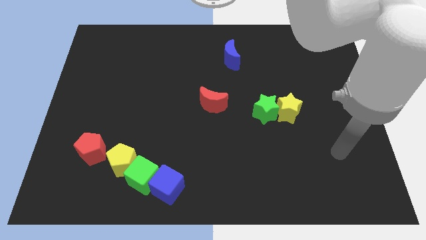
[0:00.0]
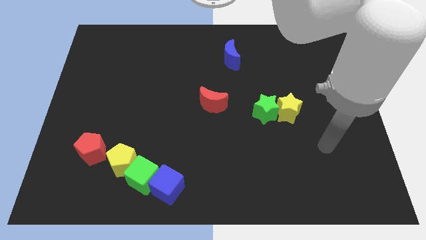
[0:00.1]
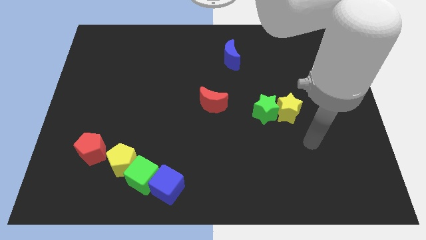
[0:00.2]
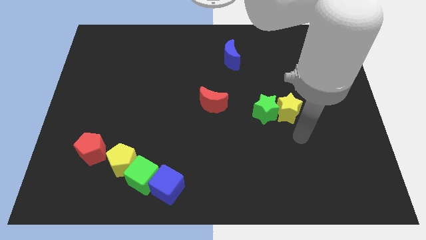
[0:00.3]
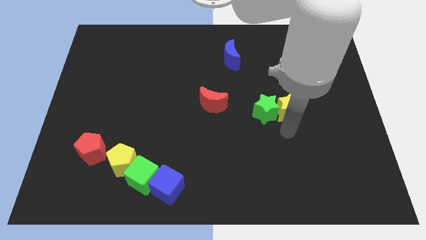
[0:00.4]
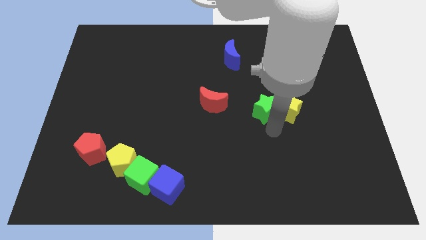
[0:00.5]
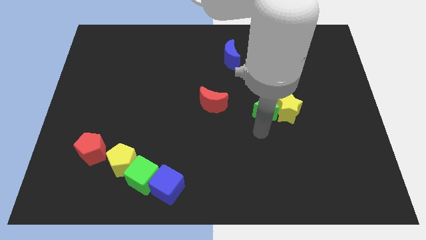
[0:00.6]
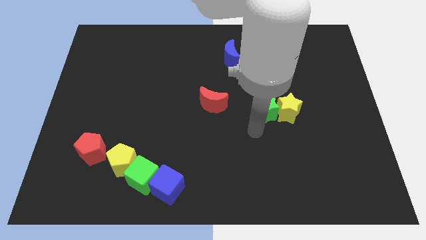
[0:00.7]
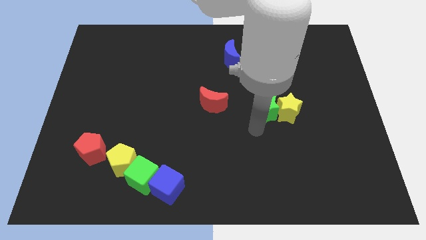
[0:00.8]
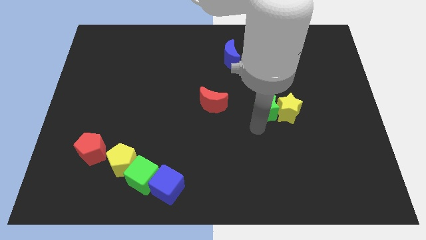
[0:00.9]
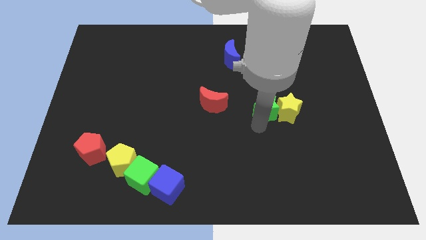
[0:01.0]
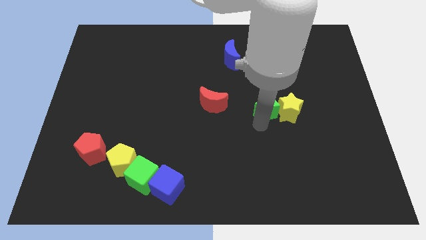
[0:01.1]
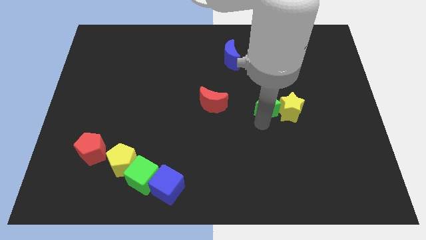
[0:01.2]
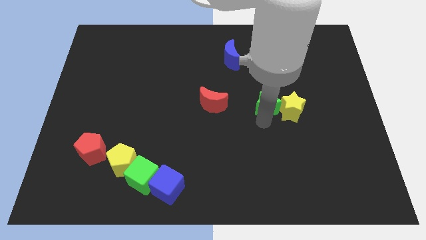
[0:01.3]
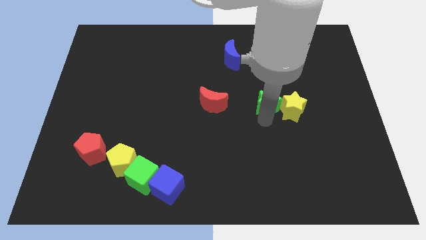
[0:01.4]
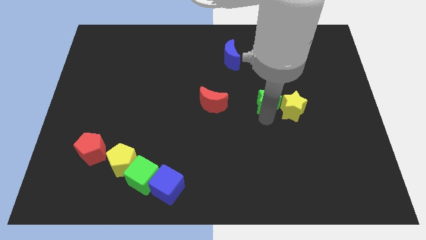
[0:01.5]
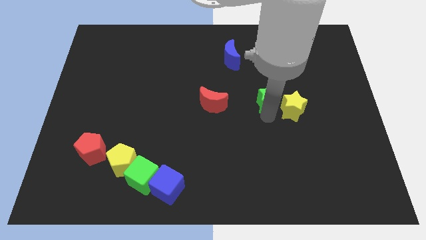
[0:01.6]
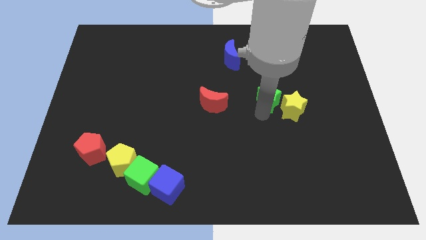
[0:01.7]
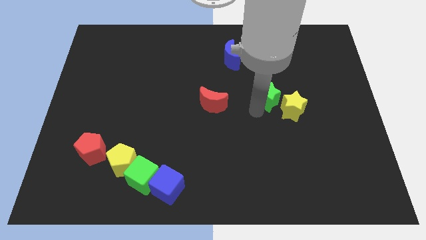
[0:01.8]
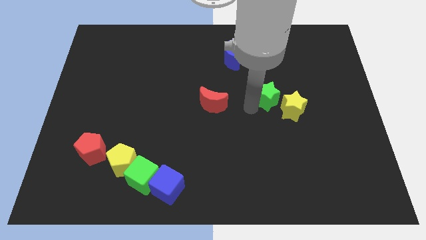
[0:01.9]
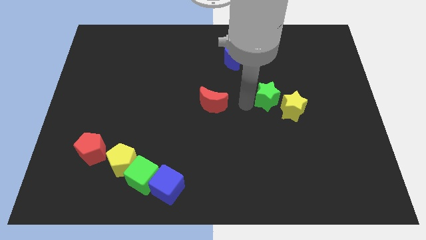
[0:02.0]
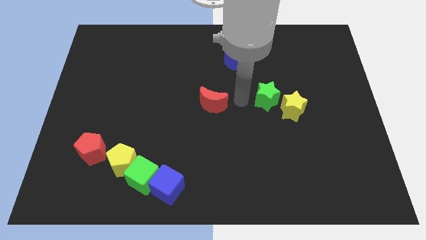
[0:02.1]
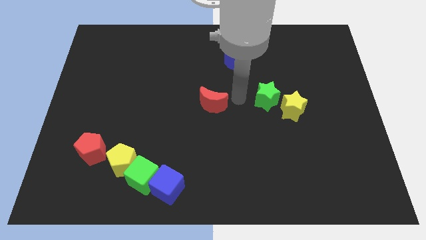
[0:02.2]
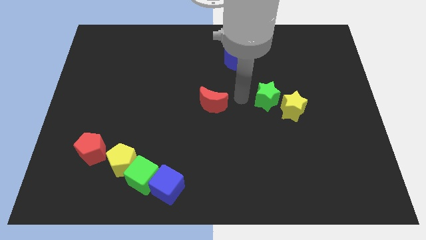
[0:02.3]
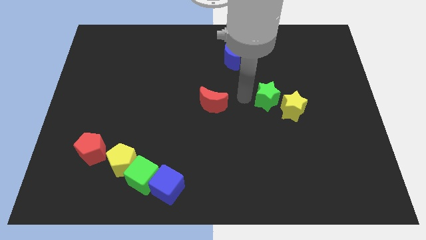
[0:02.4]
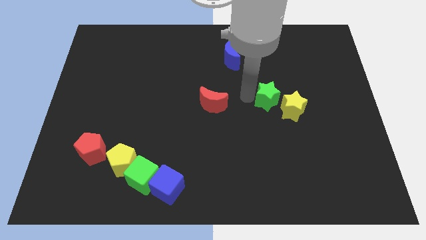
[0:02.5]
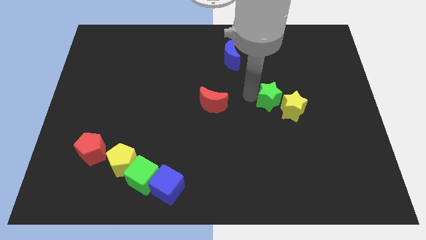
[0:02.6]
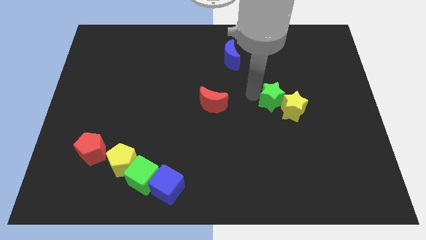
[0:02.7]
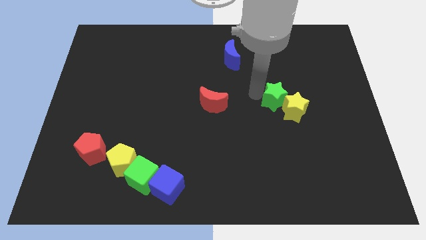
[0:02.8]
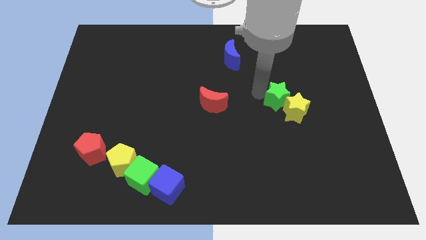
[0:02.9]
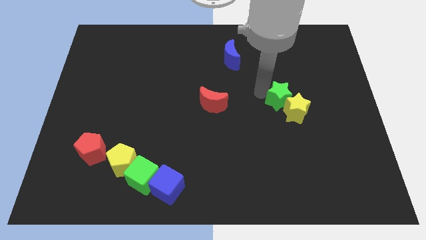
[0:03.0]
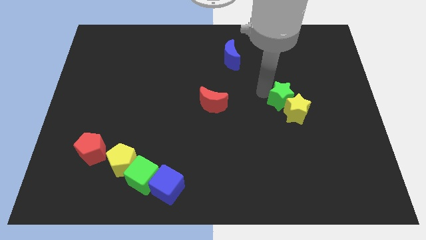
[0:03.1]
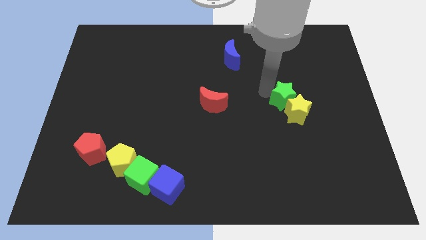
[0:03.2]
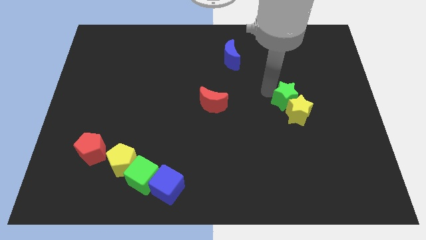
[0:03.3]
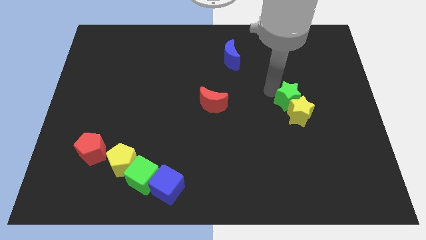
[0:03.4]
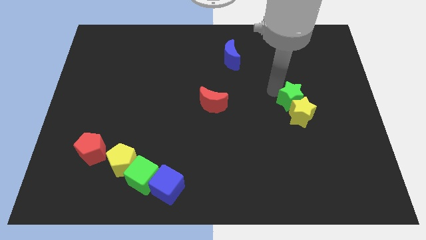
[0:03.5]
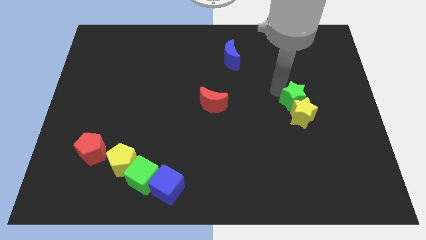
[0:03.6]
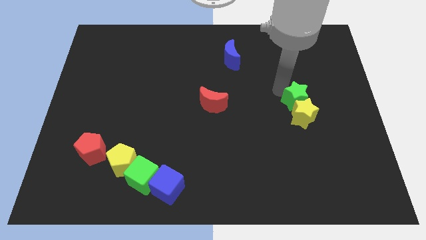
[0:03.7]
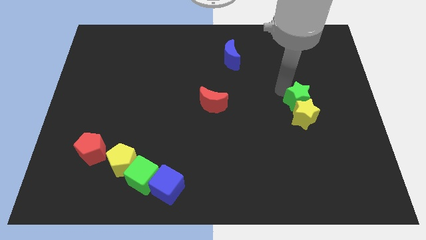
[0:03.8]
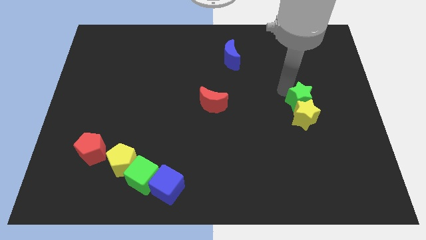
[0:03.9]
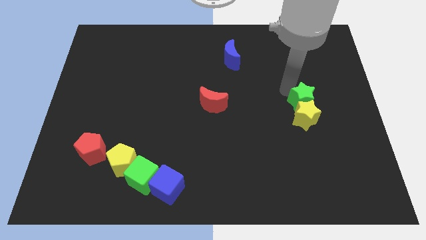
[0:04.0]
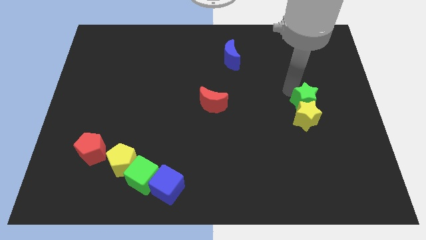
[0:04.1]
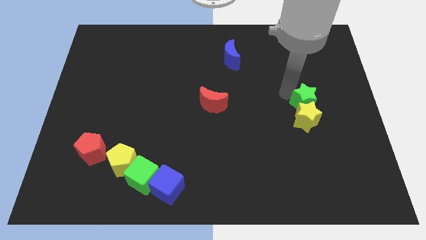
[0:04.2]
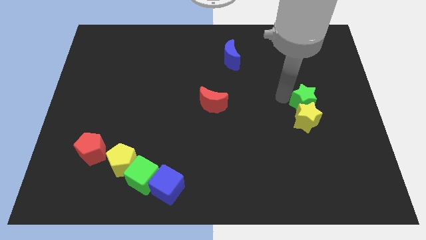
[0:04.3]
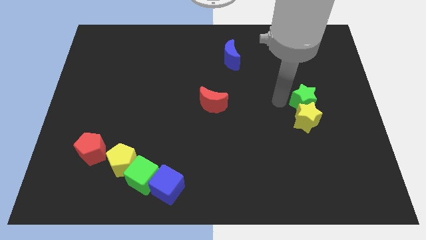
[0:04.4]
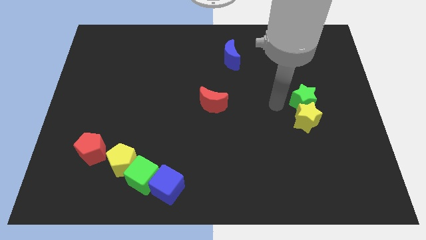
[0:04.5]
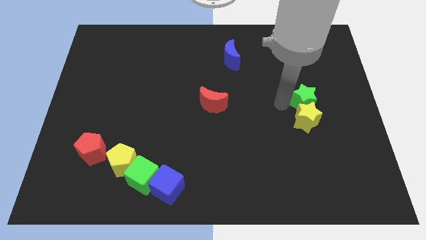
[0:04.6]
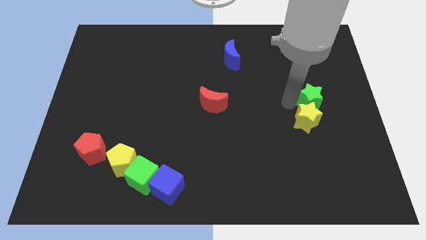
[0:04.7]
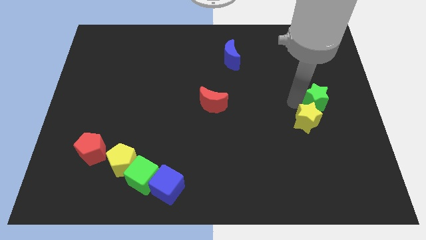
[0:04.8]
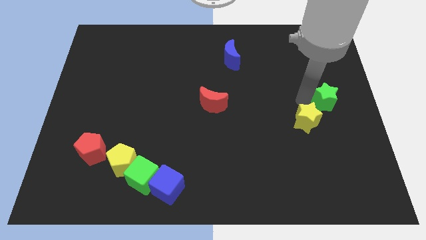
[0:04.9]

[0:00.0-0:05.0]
push the green star to the center right

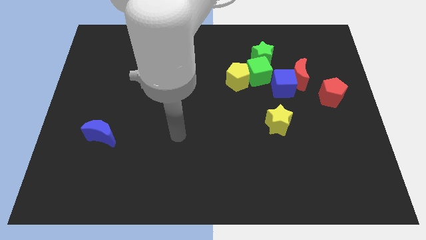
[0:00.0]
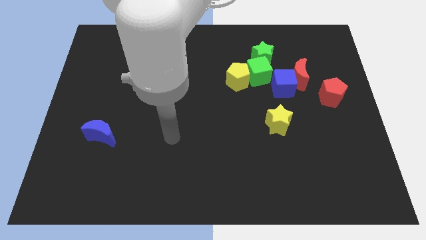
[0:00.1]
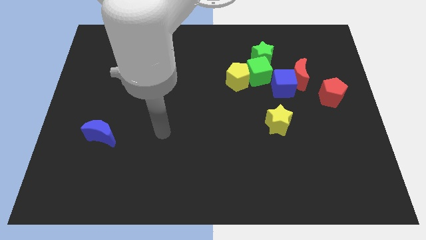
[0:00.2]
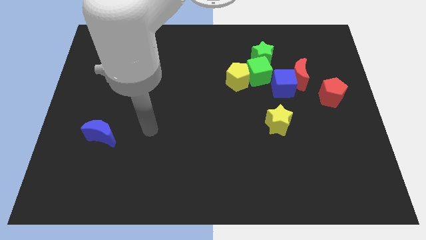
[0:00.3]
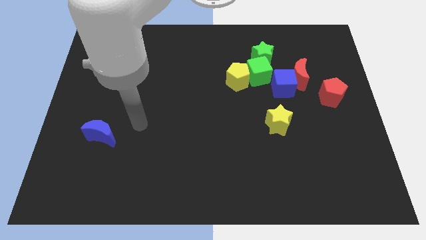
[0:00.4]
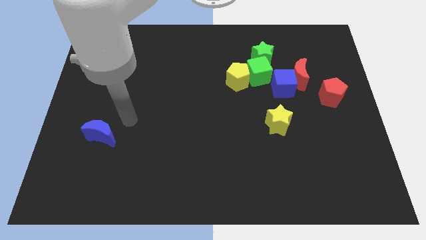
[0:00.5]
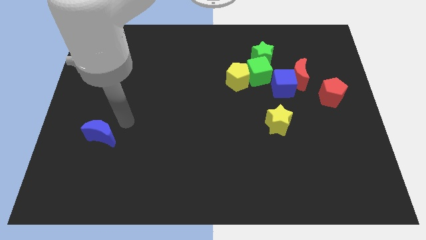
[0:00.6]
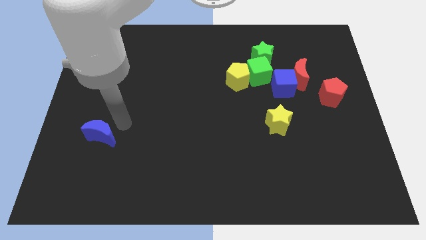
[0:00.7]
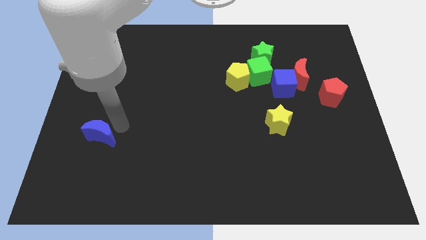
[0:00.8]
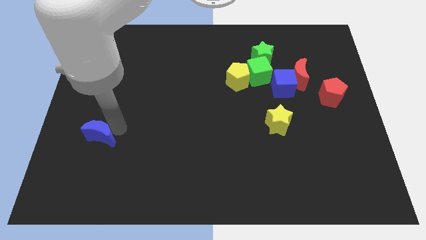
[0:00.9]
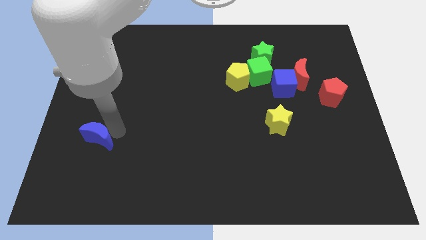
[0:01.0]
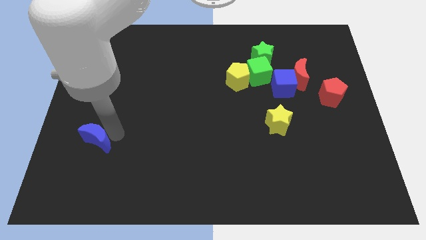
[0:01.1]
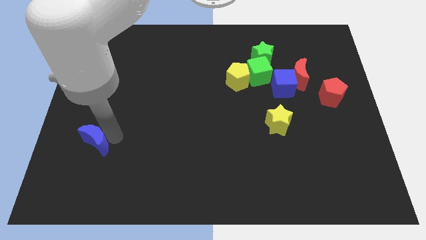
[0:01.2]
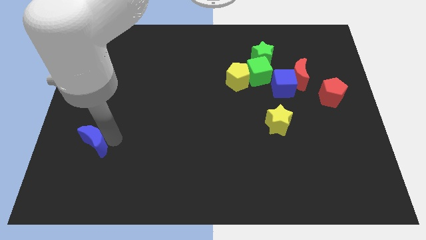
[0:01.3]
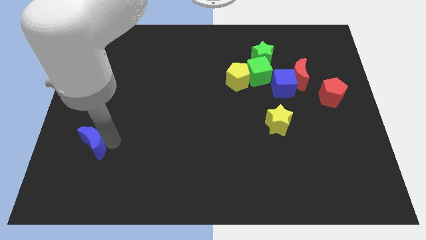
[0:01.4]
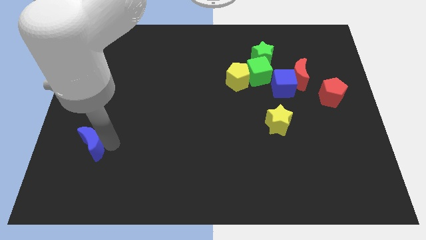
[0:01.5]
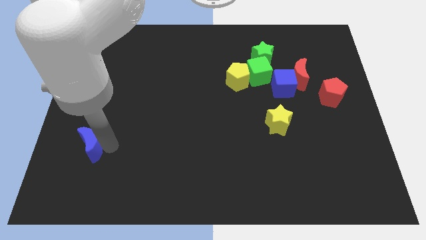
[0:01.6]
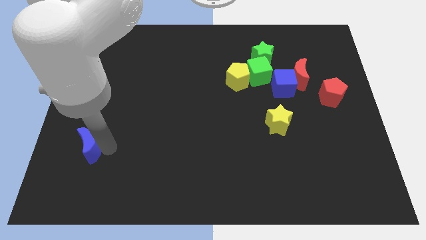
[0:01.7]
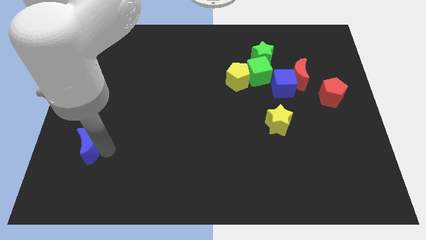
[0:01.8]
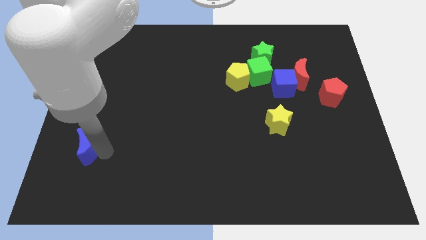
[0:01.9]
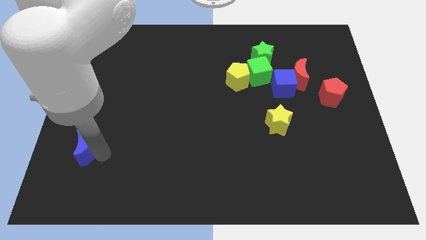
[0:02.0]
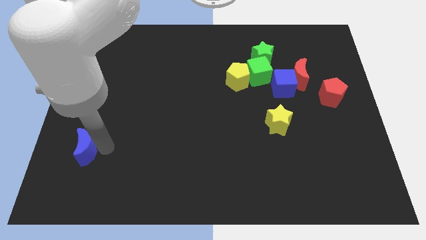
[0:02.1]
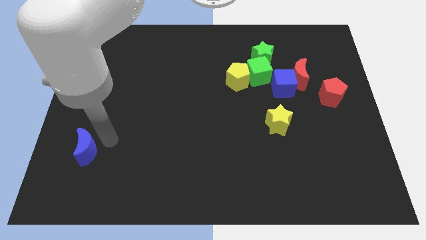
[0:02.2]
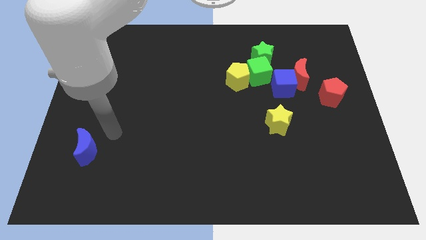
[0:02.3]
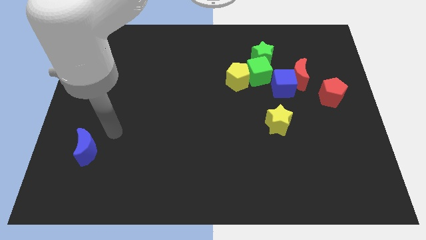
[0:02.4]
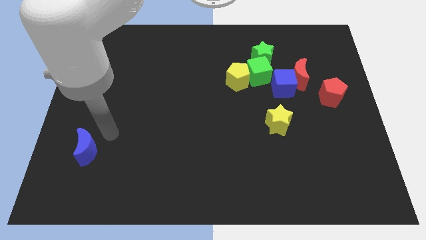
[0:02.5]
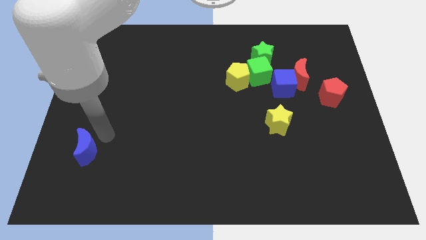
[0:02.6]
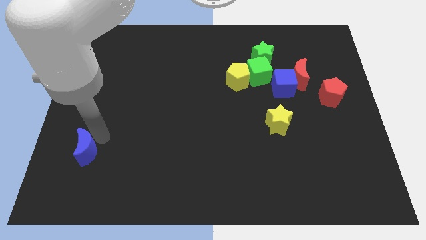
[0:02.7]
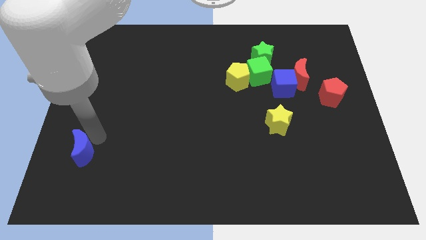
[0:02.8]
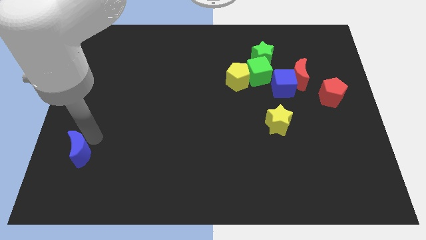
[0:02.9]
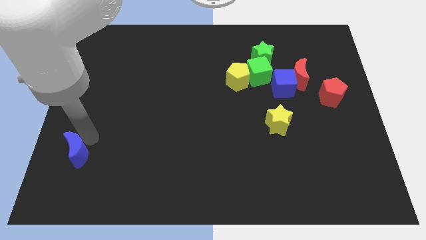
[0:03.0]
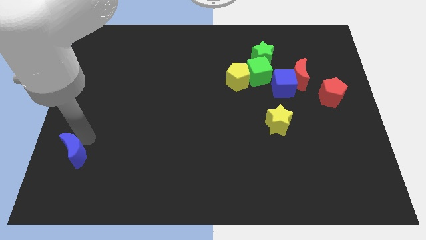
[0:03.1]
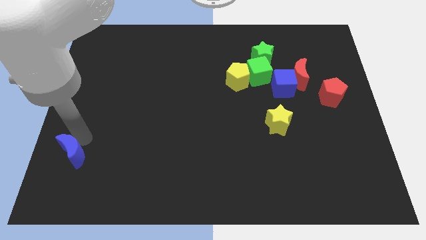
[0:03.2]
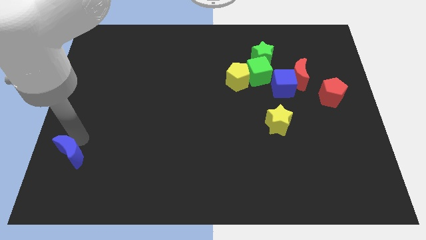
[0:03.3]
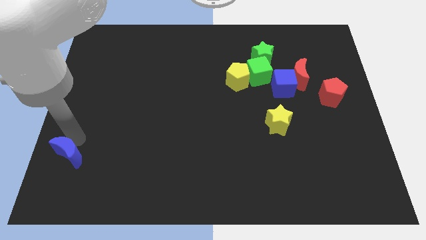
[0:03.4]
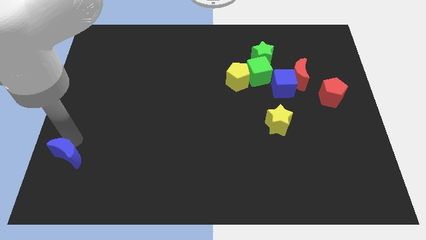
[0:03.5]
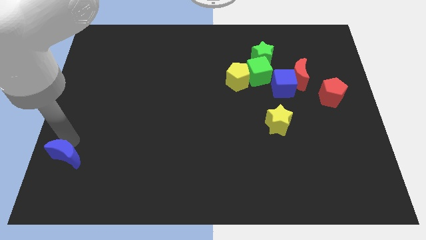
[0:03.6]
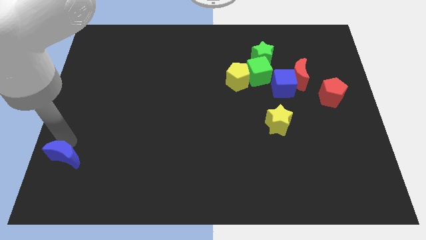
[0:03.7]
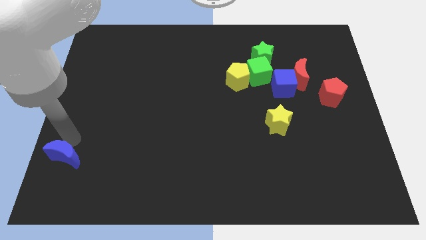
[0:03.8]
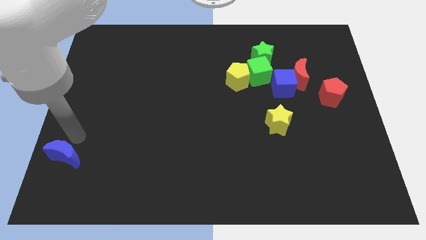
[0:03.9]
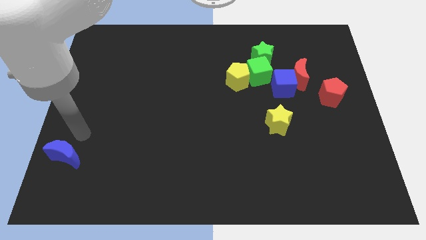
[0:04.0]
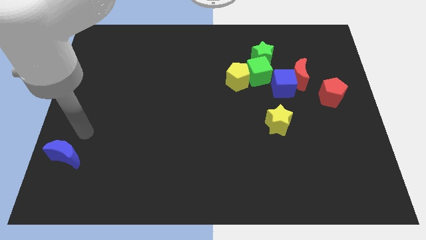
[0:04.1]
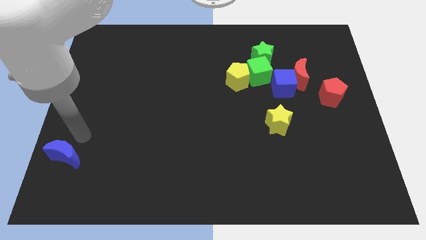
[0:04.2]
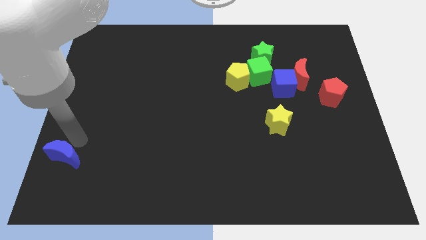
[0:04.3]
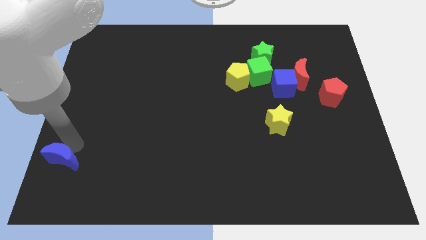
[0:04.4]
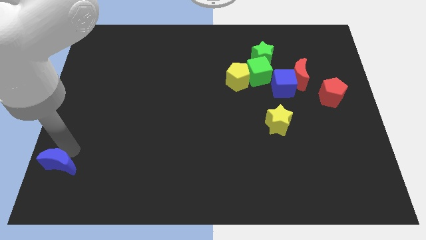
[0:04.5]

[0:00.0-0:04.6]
put the blue moon to the bottom left
